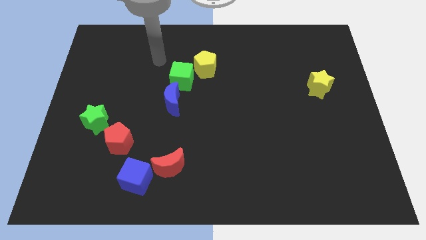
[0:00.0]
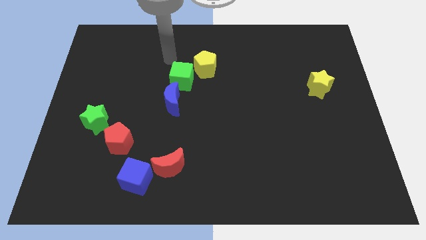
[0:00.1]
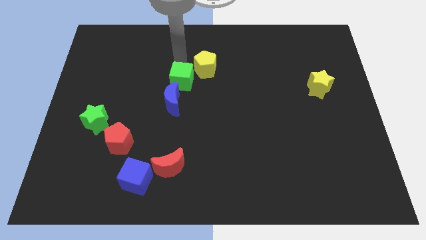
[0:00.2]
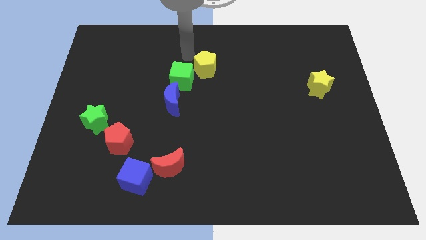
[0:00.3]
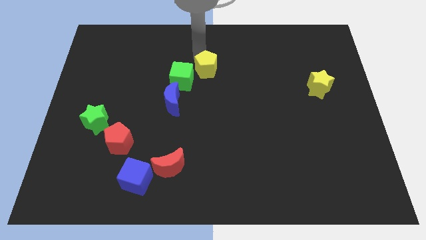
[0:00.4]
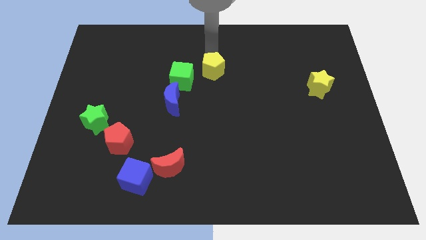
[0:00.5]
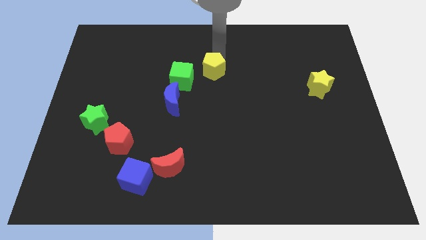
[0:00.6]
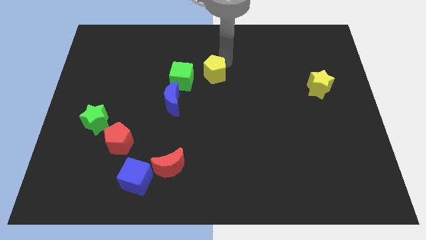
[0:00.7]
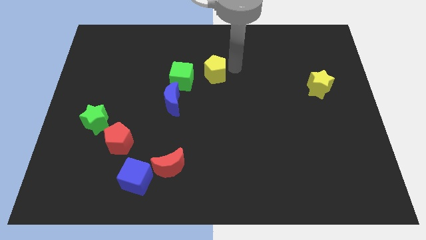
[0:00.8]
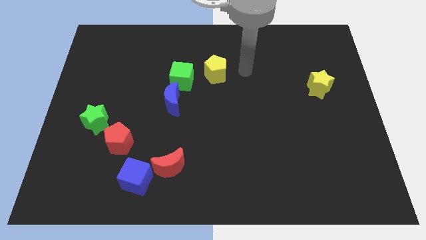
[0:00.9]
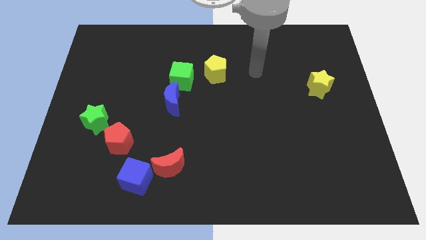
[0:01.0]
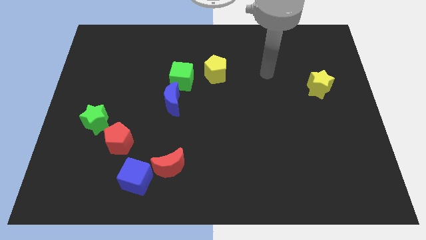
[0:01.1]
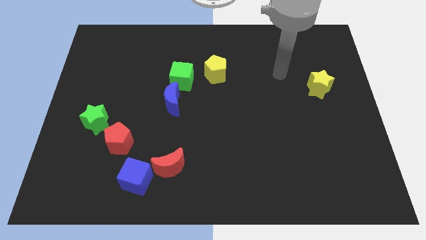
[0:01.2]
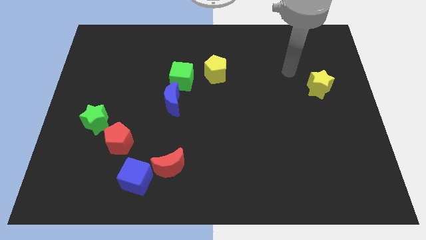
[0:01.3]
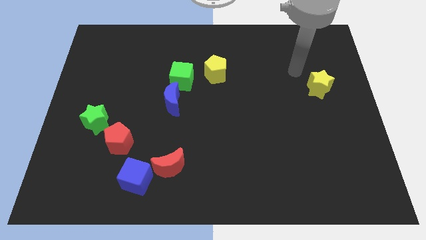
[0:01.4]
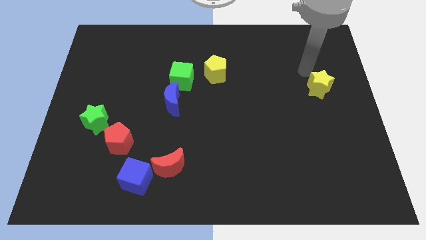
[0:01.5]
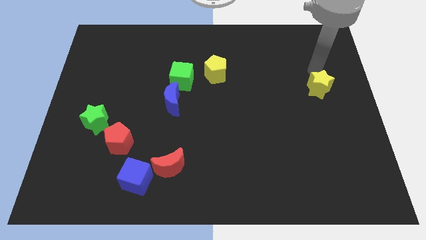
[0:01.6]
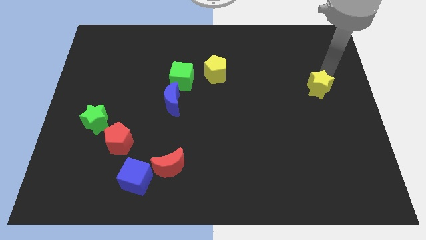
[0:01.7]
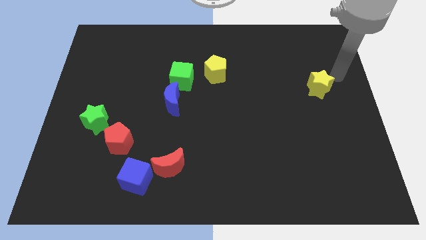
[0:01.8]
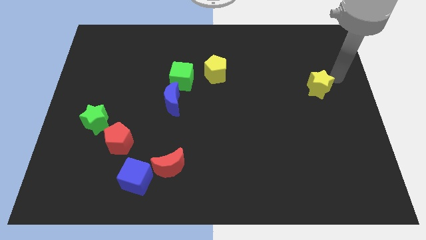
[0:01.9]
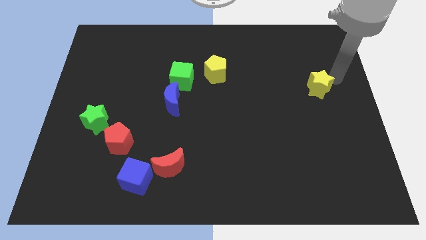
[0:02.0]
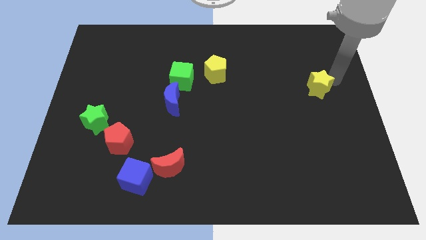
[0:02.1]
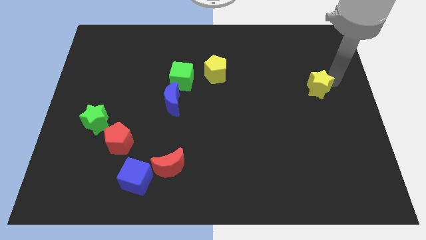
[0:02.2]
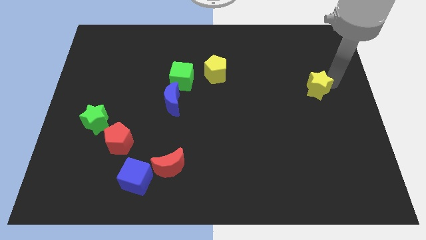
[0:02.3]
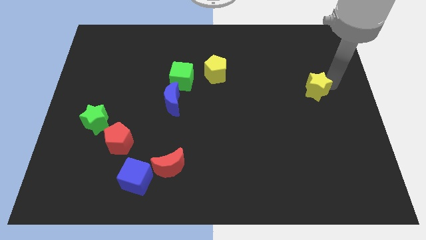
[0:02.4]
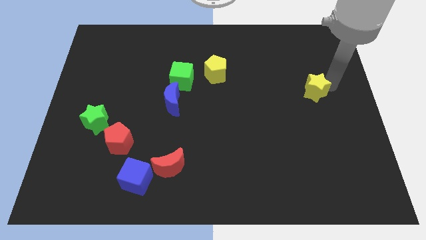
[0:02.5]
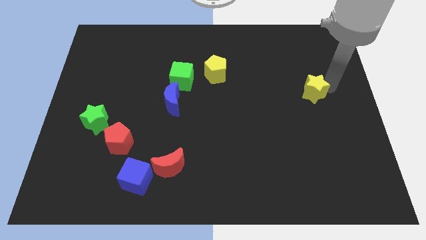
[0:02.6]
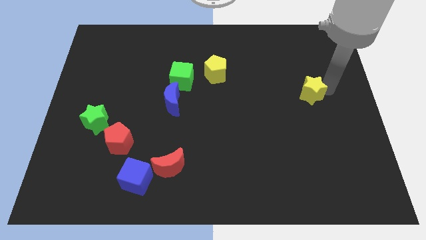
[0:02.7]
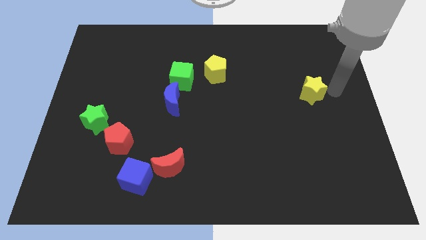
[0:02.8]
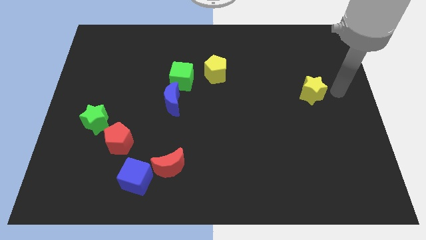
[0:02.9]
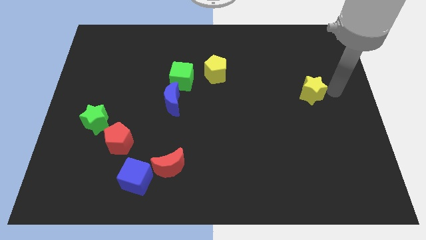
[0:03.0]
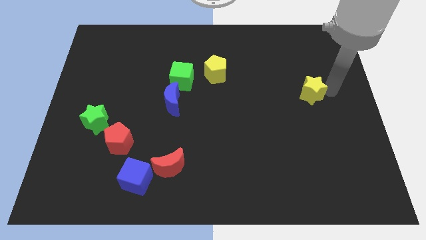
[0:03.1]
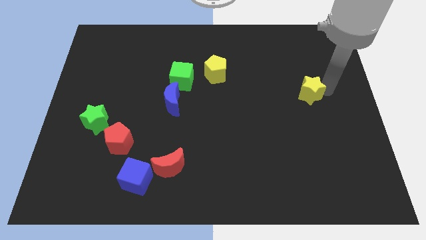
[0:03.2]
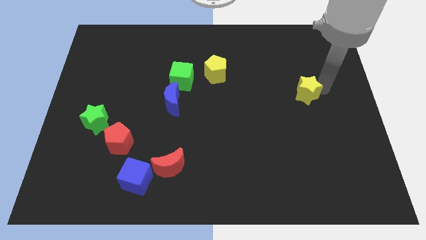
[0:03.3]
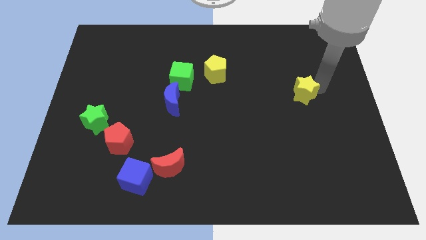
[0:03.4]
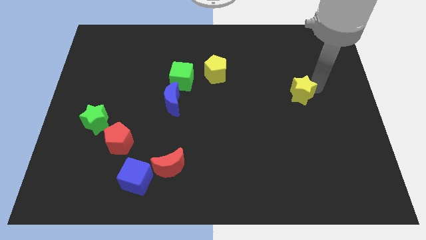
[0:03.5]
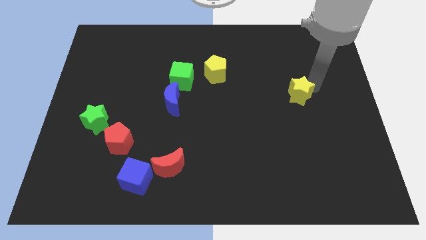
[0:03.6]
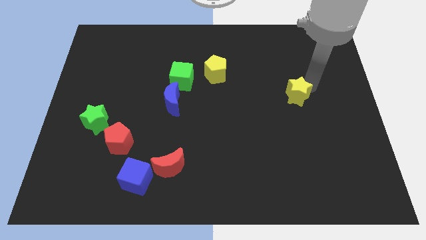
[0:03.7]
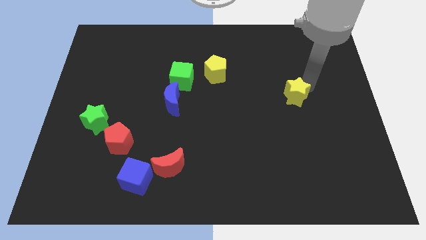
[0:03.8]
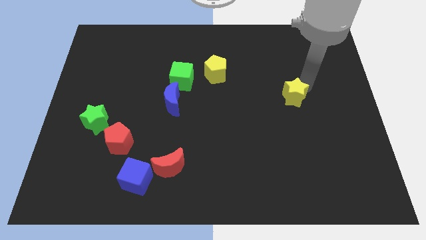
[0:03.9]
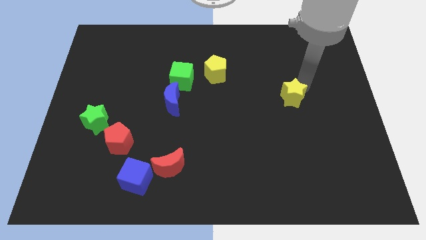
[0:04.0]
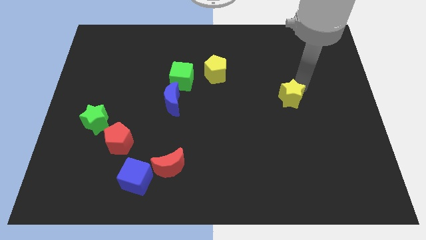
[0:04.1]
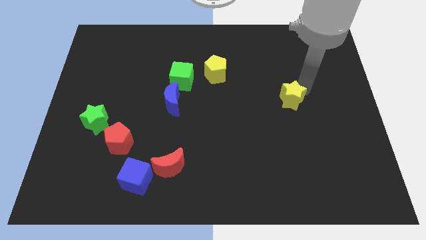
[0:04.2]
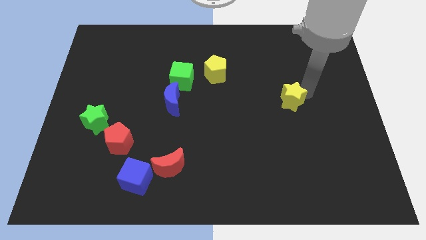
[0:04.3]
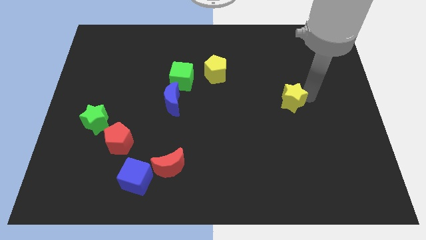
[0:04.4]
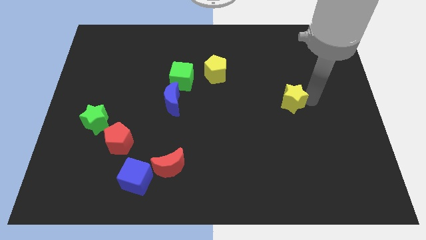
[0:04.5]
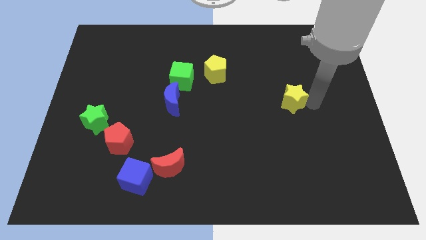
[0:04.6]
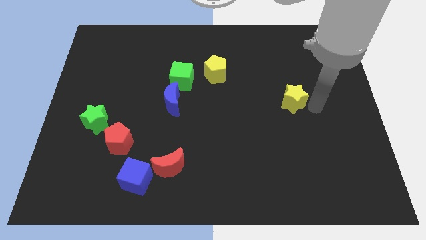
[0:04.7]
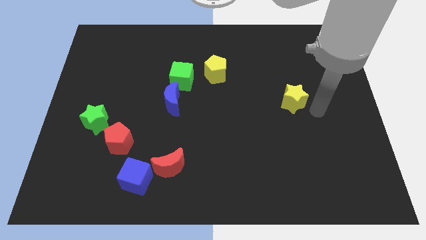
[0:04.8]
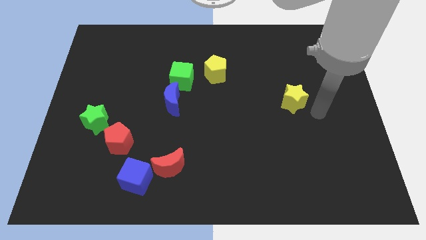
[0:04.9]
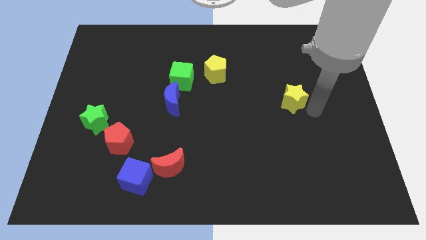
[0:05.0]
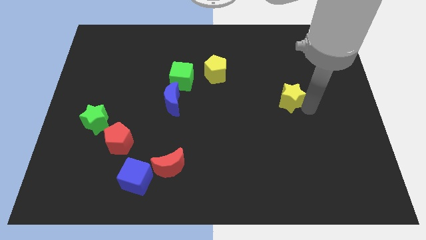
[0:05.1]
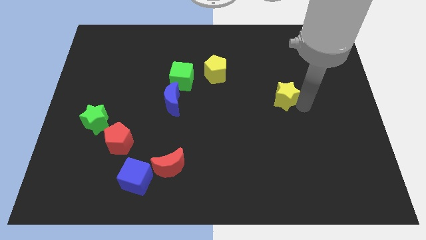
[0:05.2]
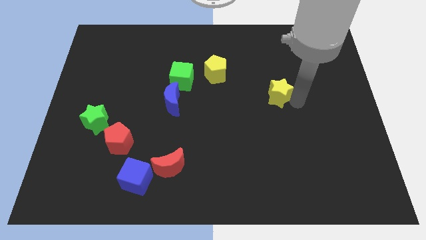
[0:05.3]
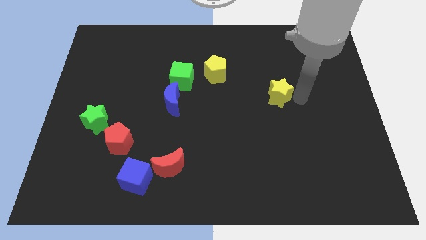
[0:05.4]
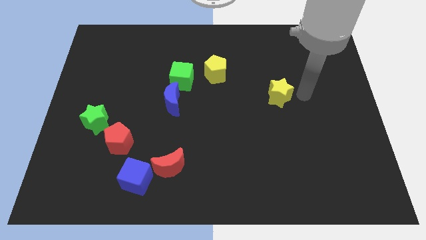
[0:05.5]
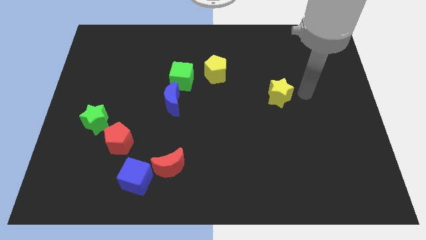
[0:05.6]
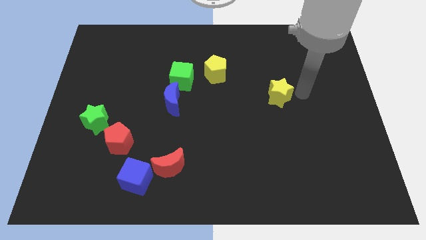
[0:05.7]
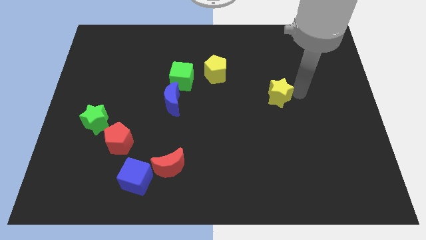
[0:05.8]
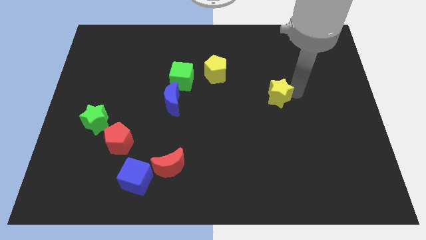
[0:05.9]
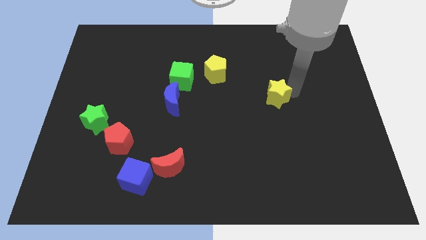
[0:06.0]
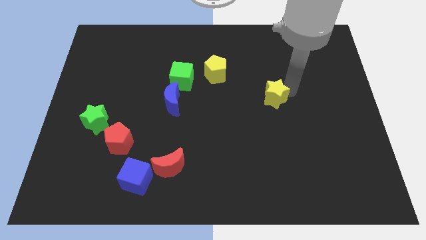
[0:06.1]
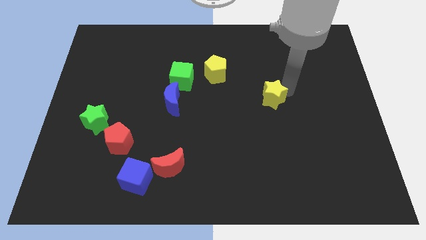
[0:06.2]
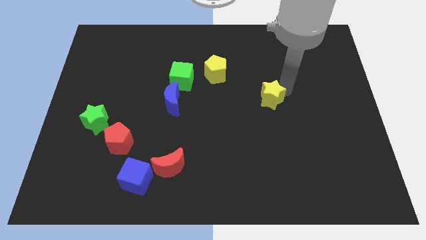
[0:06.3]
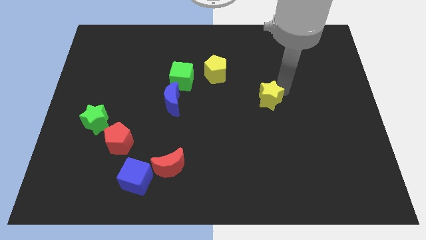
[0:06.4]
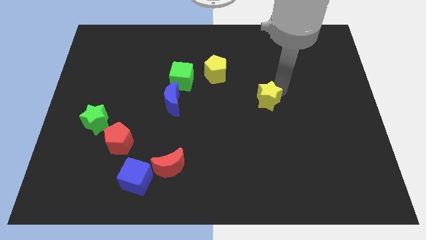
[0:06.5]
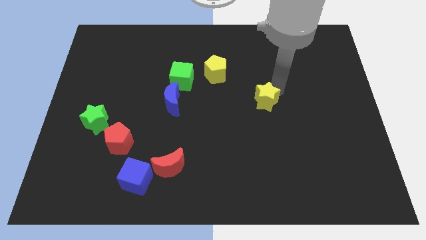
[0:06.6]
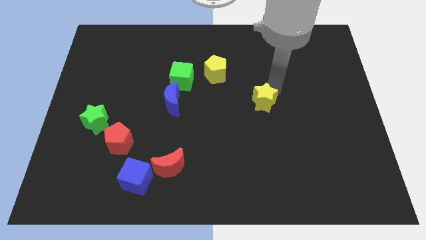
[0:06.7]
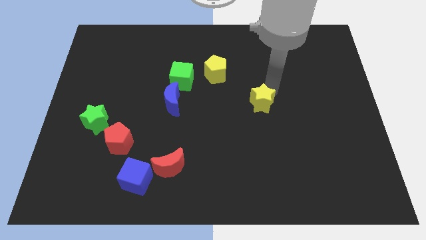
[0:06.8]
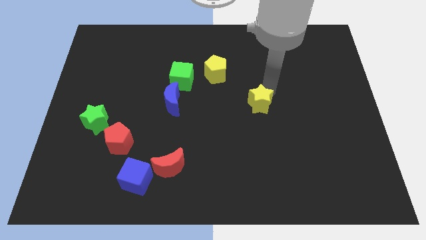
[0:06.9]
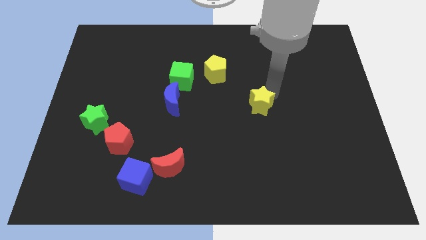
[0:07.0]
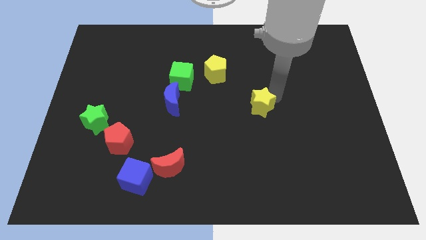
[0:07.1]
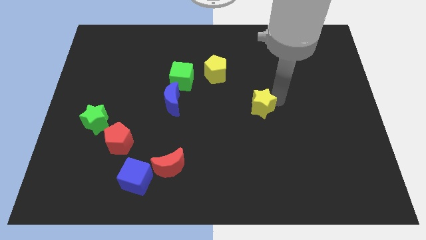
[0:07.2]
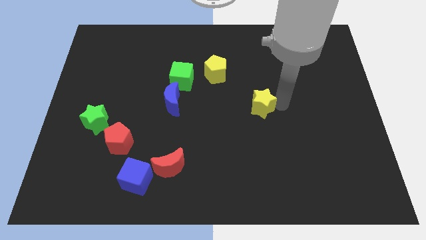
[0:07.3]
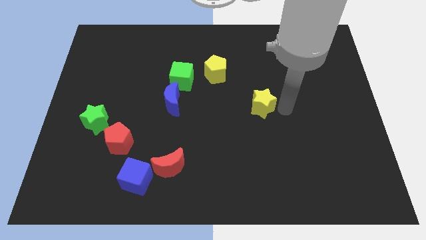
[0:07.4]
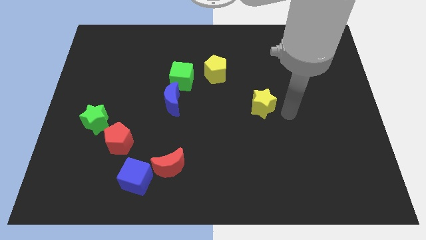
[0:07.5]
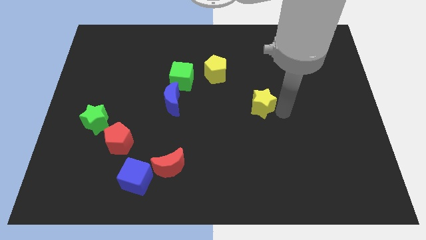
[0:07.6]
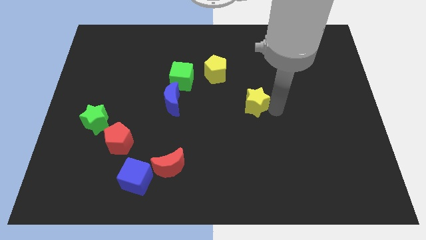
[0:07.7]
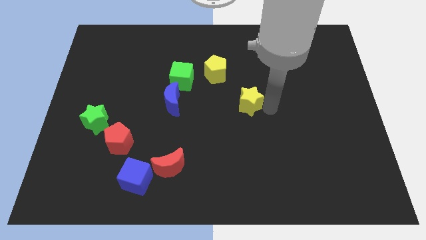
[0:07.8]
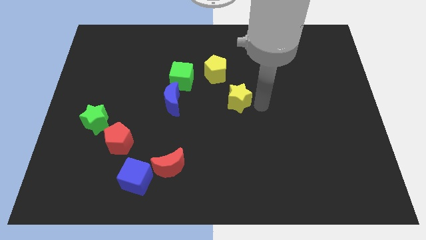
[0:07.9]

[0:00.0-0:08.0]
move the yellow star right of the blue moon
